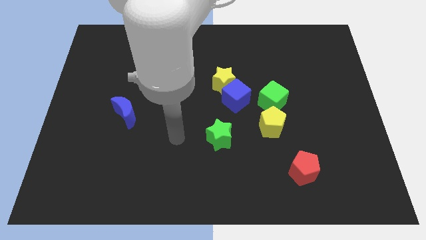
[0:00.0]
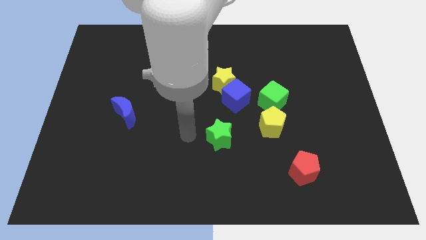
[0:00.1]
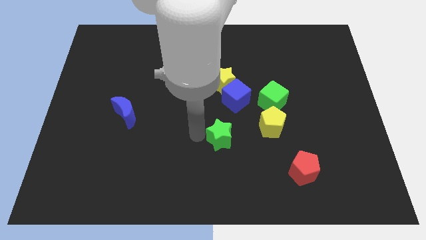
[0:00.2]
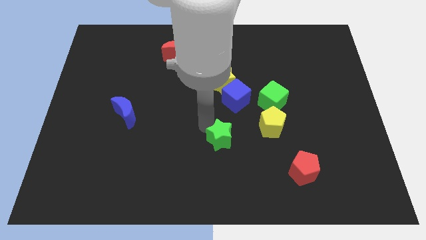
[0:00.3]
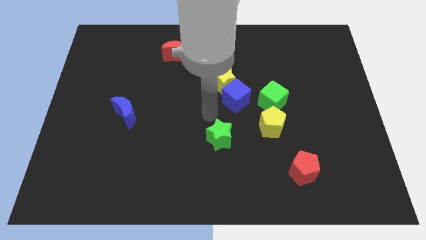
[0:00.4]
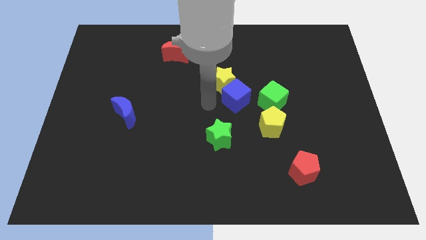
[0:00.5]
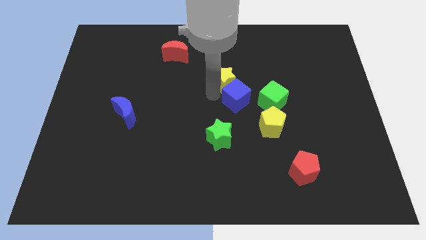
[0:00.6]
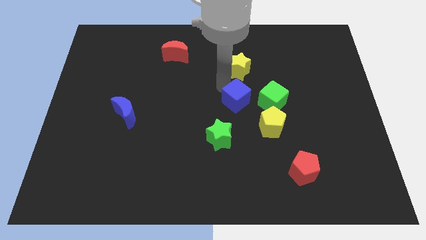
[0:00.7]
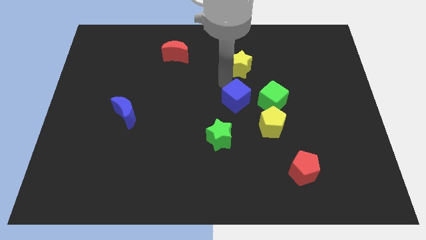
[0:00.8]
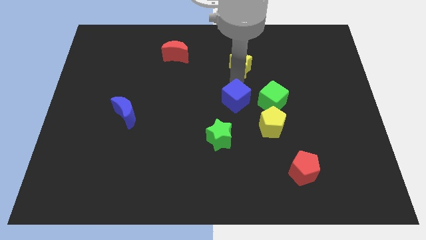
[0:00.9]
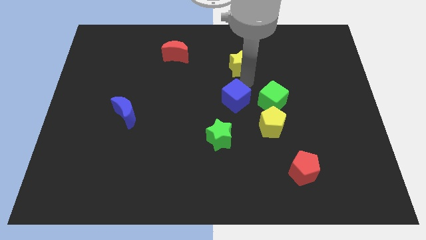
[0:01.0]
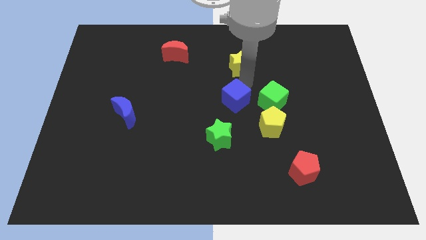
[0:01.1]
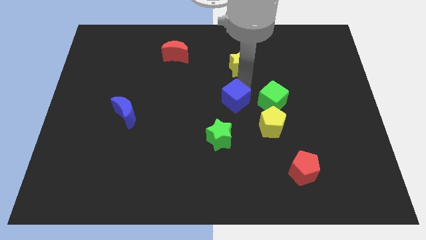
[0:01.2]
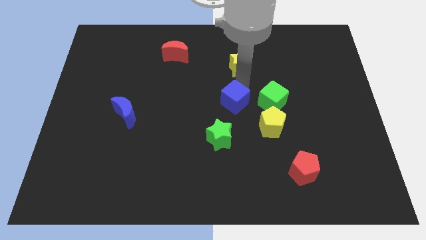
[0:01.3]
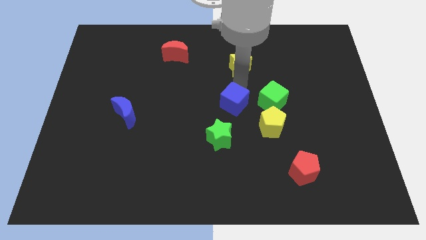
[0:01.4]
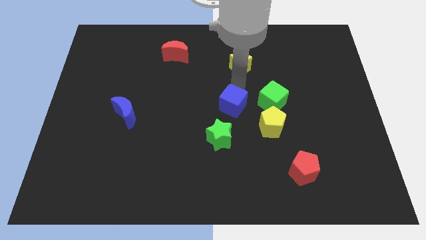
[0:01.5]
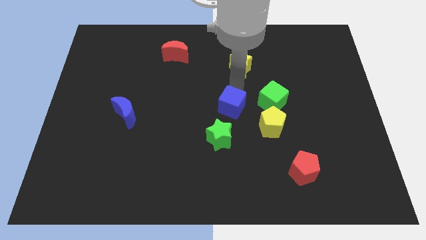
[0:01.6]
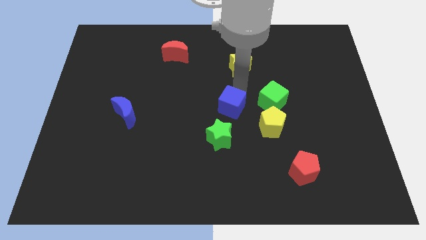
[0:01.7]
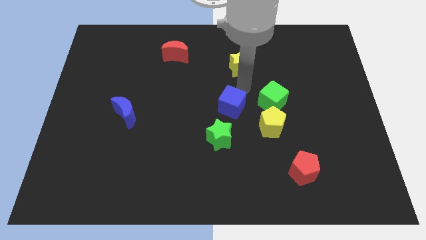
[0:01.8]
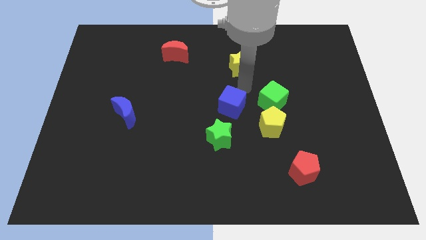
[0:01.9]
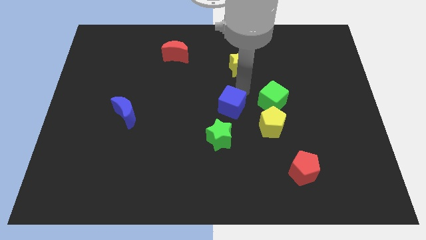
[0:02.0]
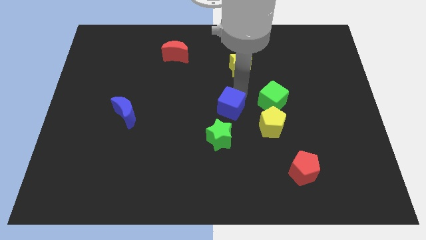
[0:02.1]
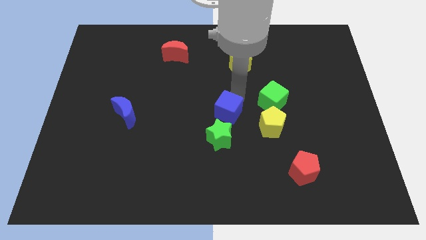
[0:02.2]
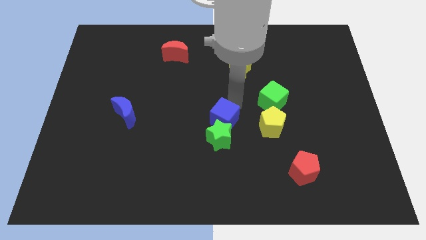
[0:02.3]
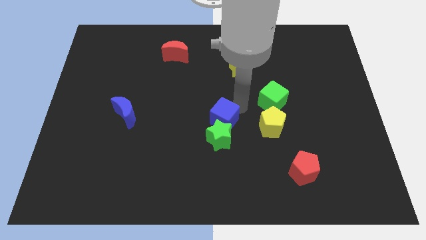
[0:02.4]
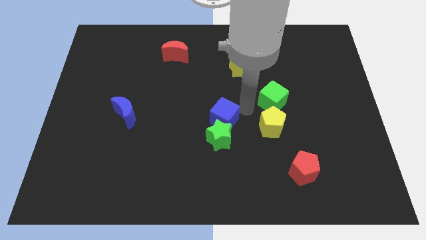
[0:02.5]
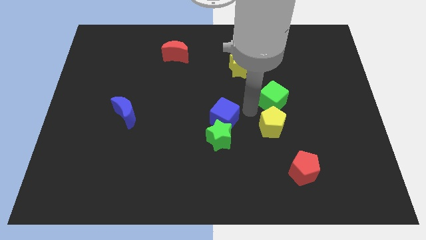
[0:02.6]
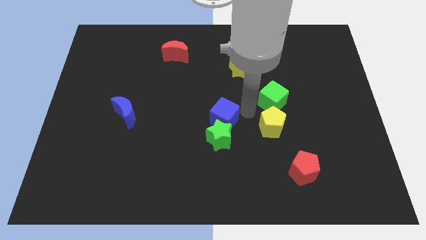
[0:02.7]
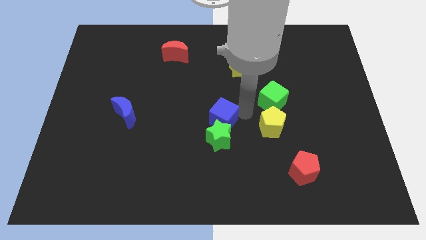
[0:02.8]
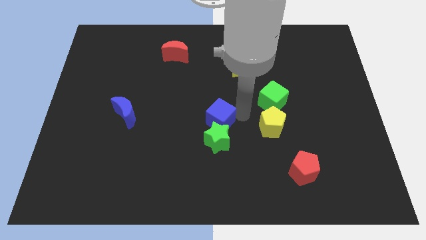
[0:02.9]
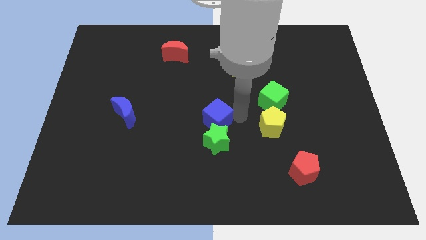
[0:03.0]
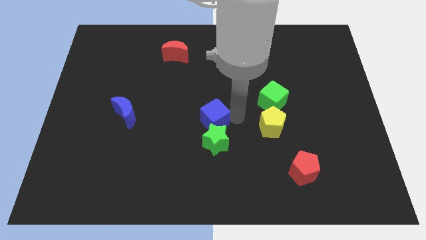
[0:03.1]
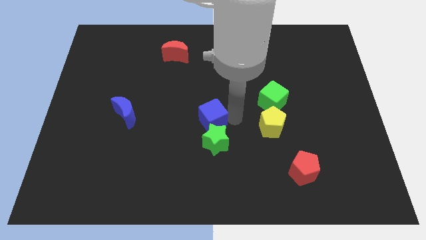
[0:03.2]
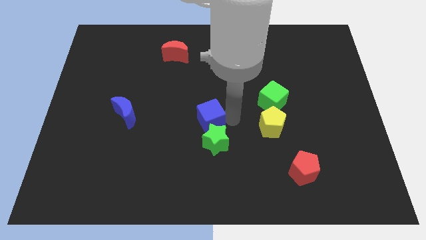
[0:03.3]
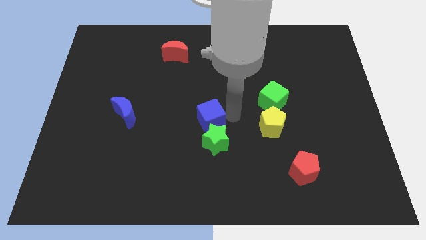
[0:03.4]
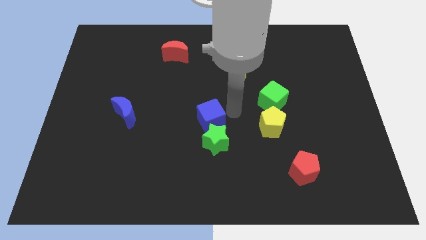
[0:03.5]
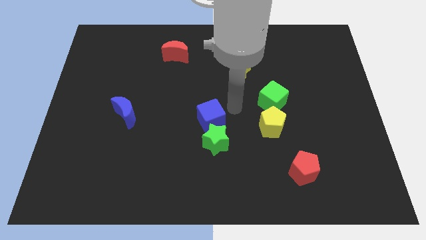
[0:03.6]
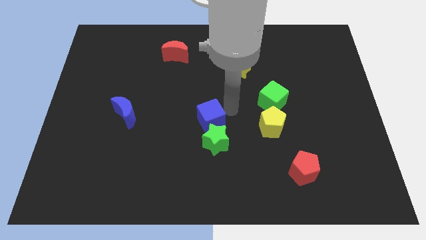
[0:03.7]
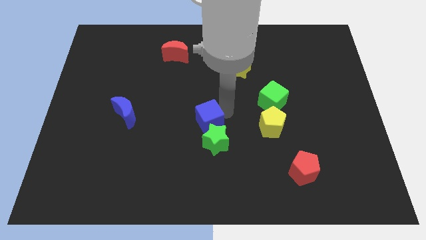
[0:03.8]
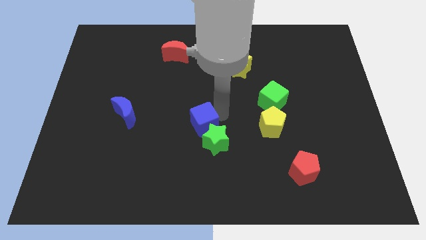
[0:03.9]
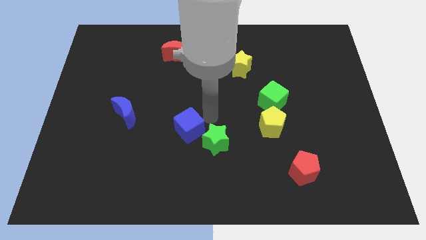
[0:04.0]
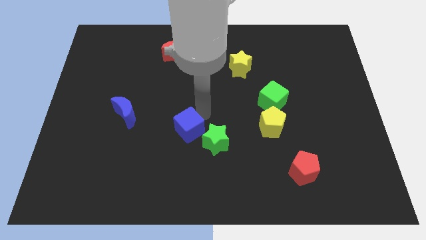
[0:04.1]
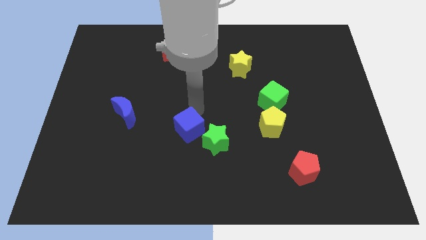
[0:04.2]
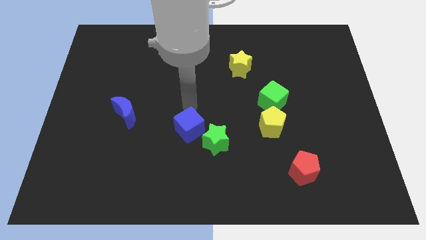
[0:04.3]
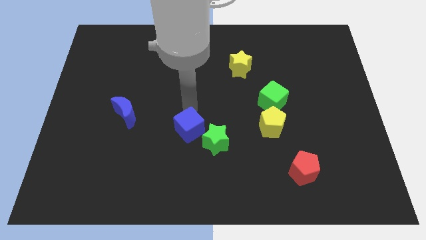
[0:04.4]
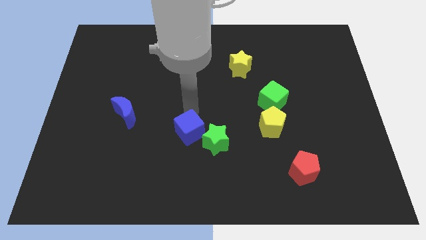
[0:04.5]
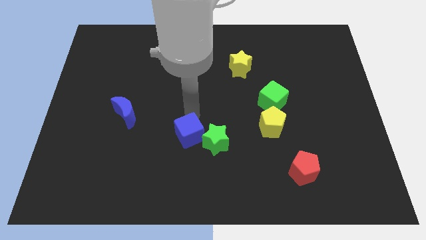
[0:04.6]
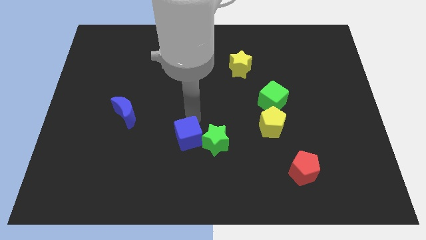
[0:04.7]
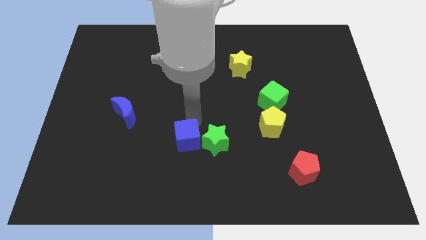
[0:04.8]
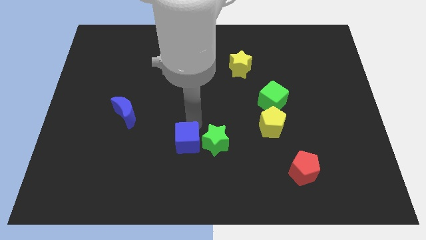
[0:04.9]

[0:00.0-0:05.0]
slide the blue cube to the bottom left of the green star

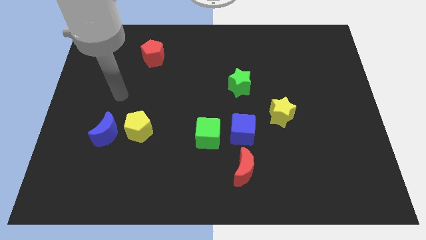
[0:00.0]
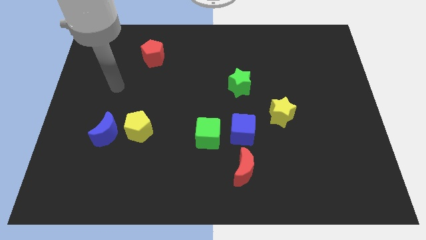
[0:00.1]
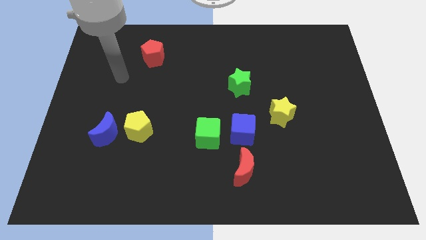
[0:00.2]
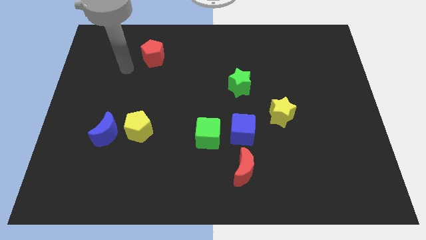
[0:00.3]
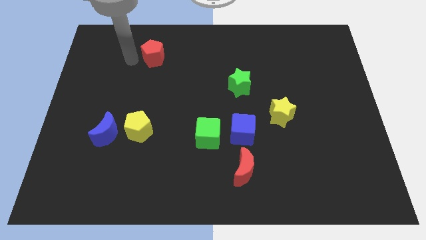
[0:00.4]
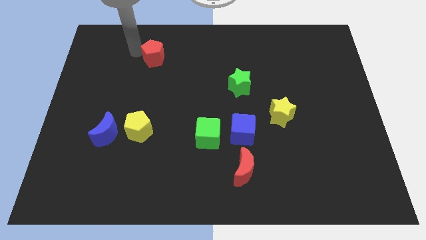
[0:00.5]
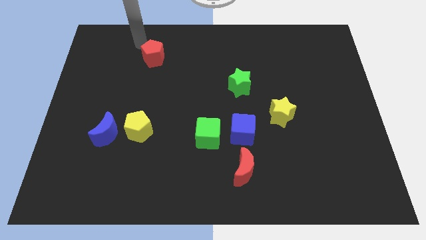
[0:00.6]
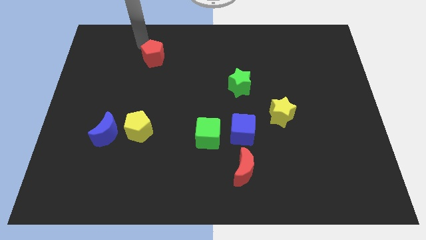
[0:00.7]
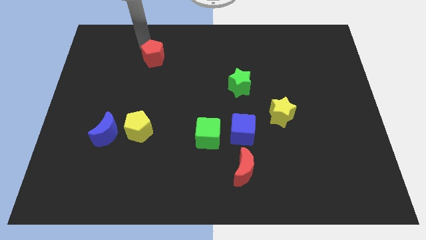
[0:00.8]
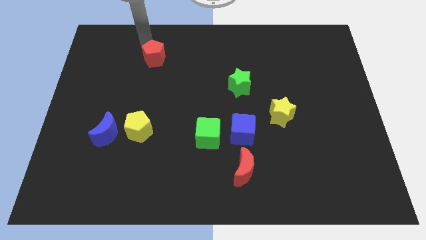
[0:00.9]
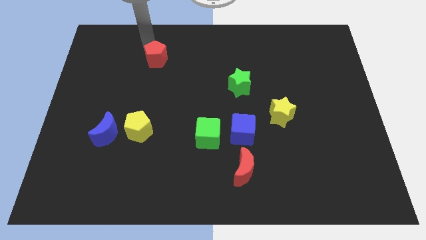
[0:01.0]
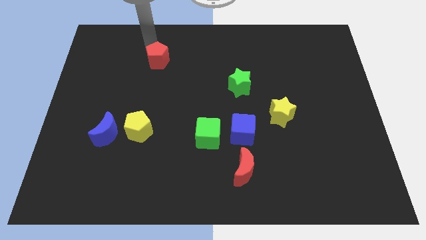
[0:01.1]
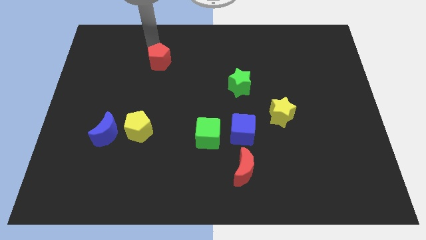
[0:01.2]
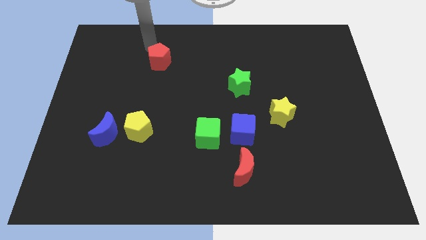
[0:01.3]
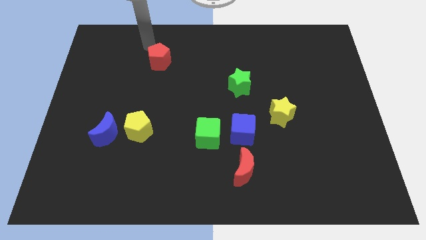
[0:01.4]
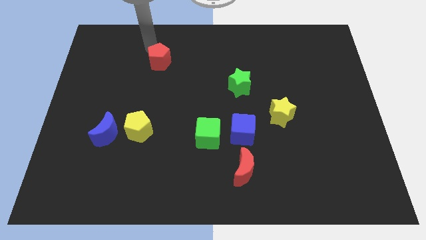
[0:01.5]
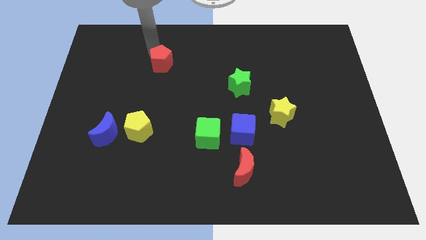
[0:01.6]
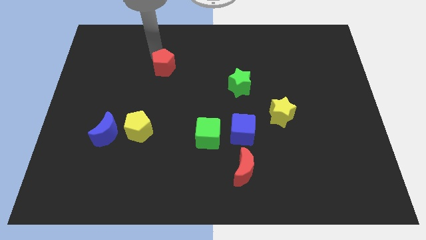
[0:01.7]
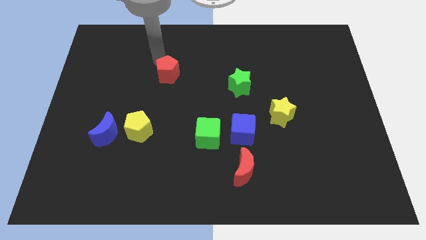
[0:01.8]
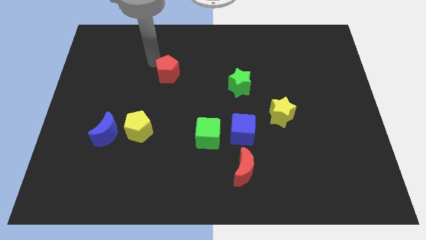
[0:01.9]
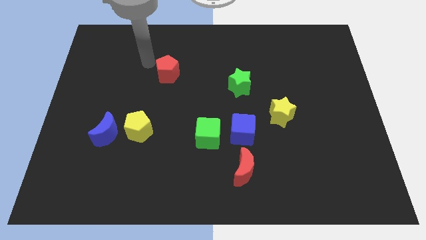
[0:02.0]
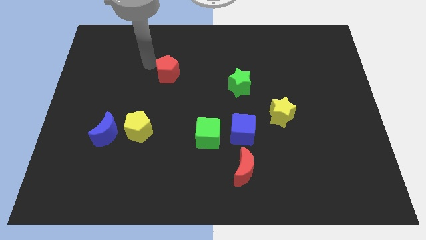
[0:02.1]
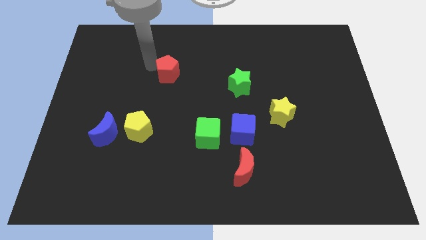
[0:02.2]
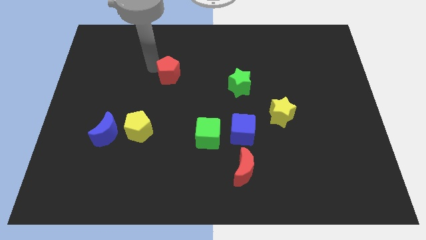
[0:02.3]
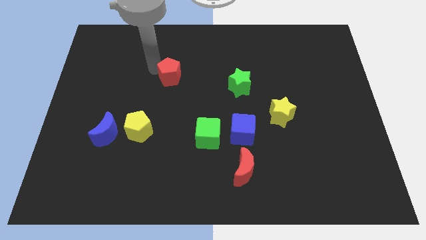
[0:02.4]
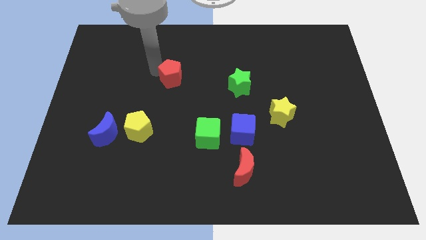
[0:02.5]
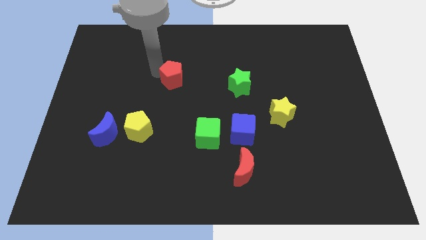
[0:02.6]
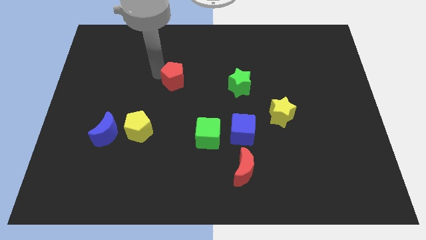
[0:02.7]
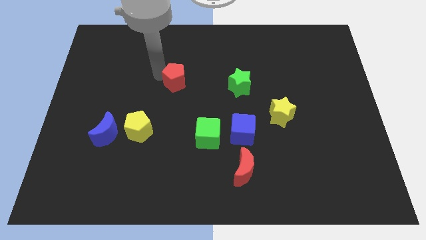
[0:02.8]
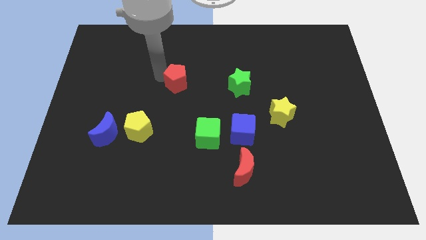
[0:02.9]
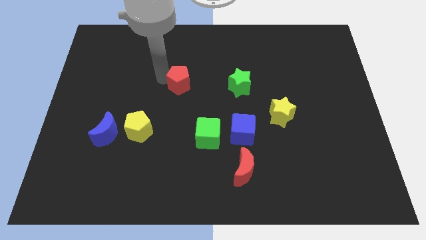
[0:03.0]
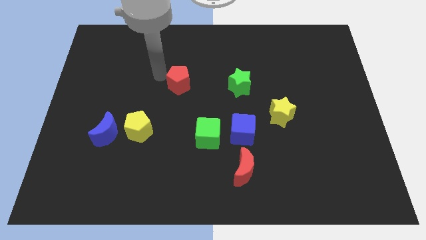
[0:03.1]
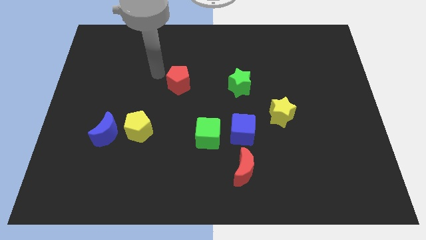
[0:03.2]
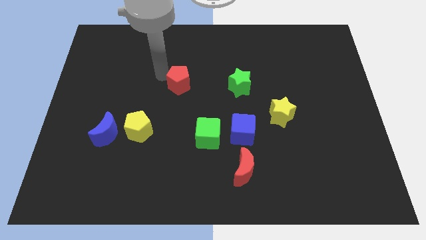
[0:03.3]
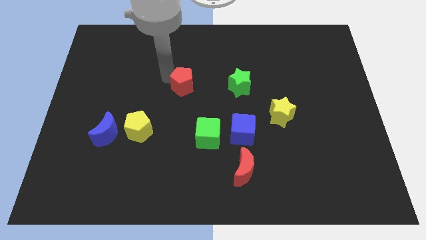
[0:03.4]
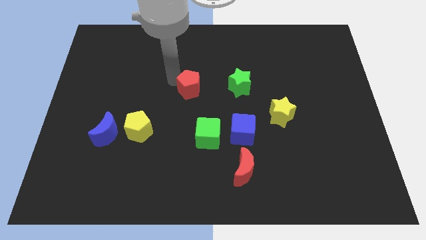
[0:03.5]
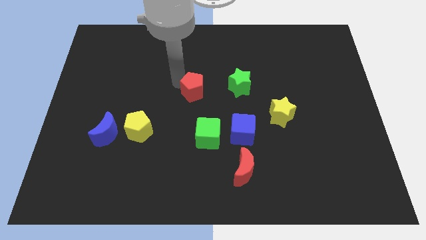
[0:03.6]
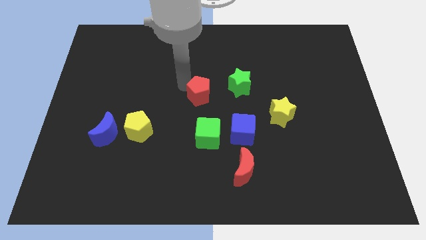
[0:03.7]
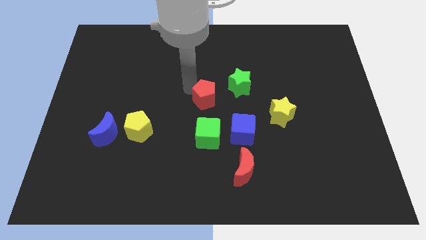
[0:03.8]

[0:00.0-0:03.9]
move the red pentagon to the bottom left side of the green star
